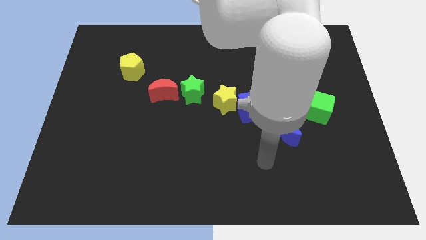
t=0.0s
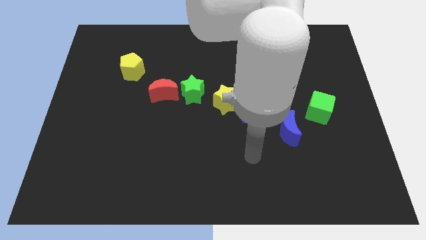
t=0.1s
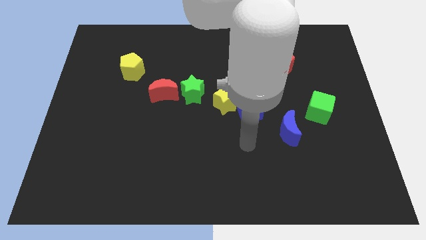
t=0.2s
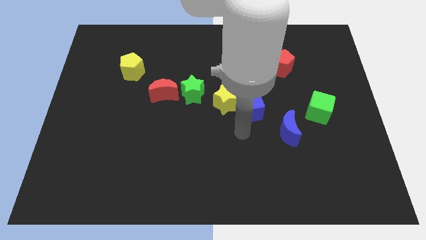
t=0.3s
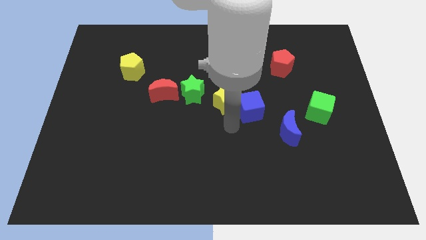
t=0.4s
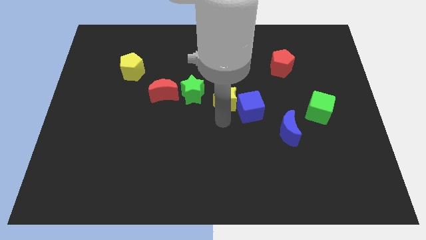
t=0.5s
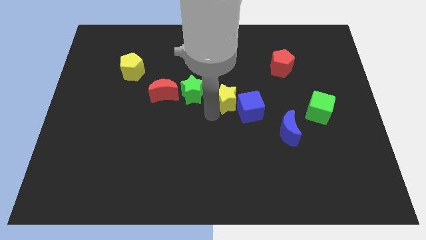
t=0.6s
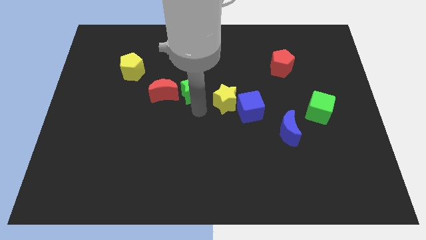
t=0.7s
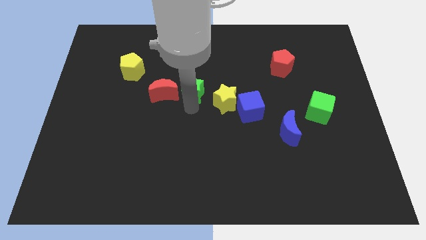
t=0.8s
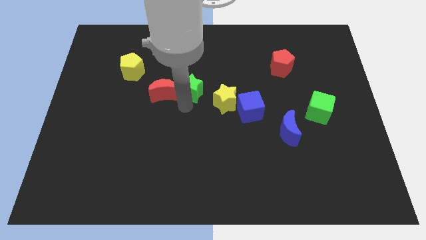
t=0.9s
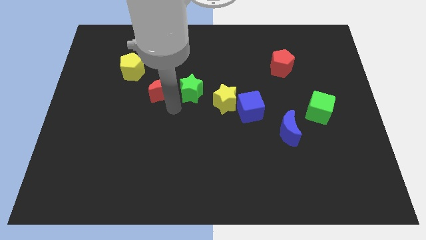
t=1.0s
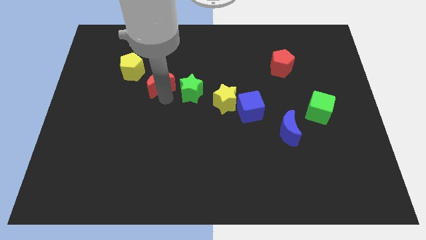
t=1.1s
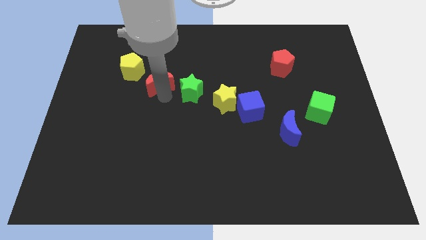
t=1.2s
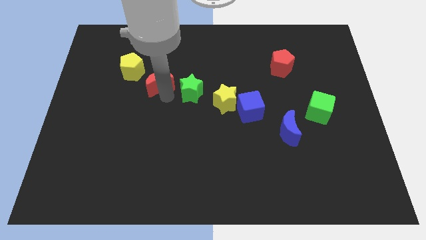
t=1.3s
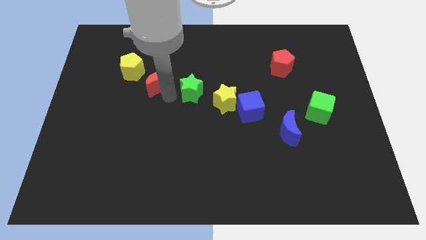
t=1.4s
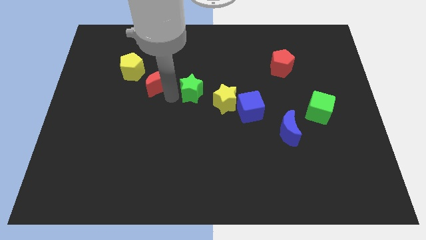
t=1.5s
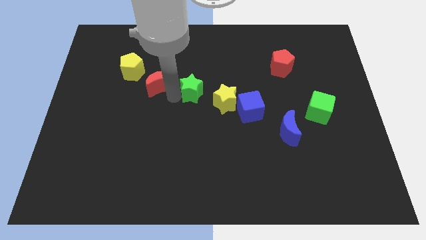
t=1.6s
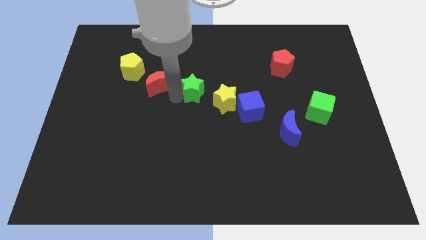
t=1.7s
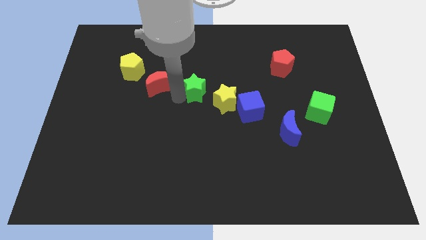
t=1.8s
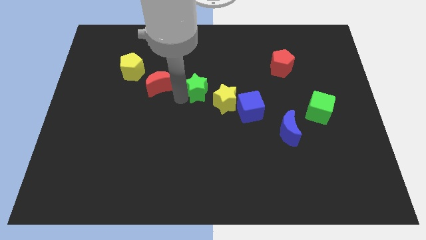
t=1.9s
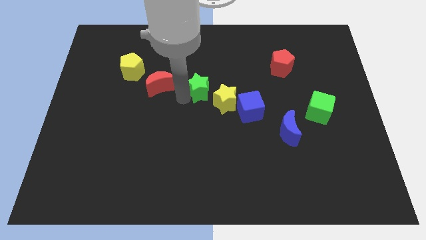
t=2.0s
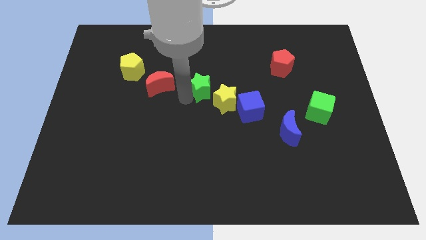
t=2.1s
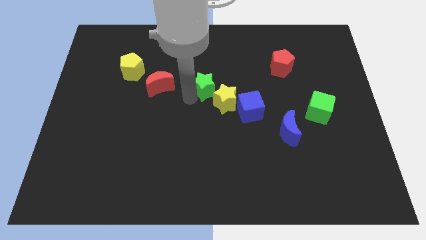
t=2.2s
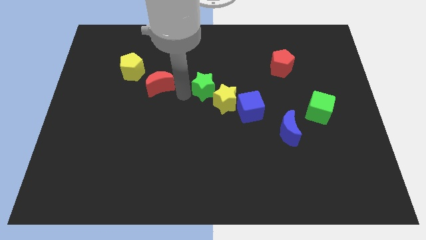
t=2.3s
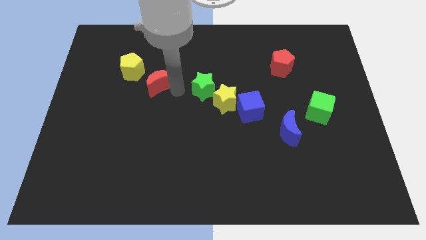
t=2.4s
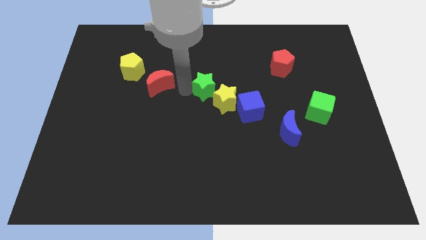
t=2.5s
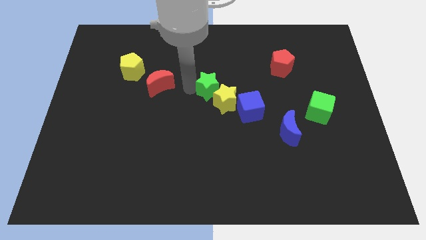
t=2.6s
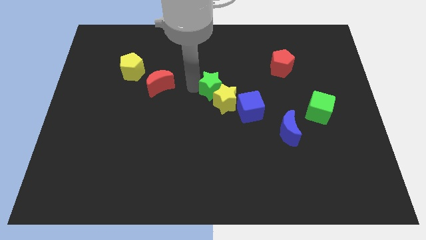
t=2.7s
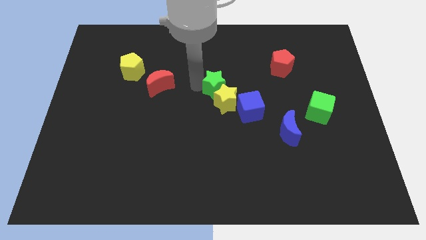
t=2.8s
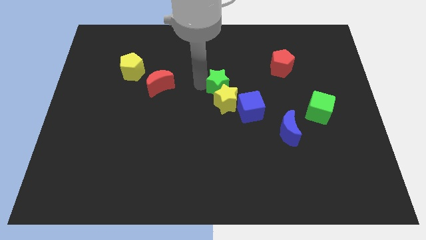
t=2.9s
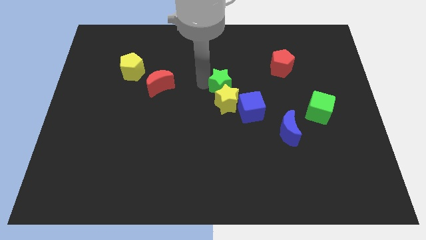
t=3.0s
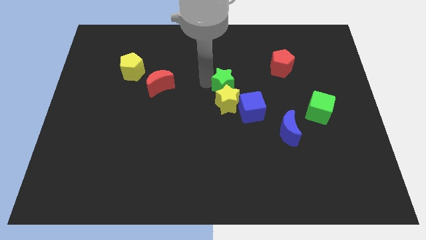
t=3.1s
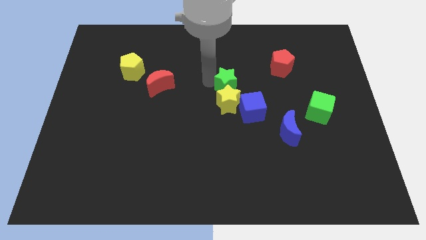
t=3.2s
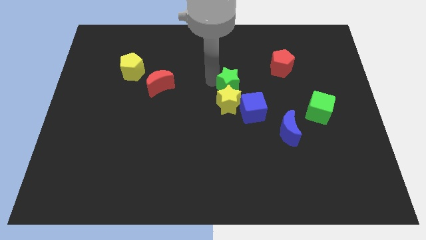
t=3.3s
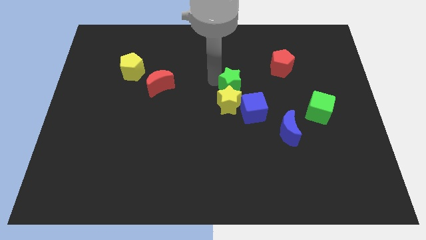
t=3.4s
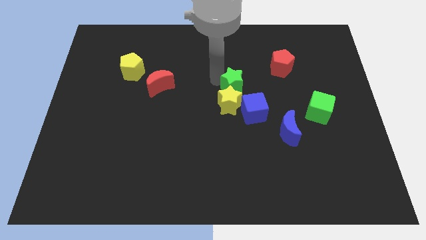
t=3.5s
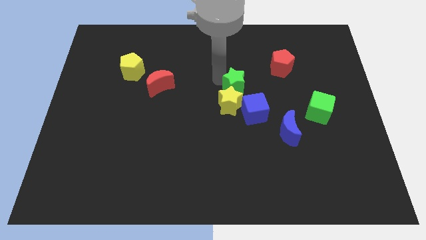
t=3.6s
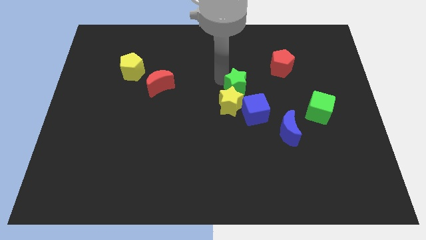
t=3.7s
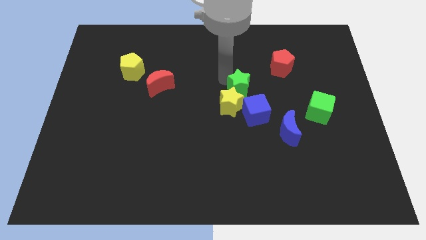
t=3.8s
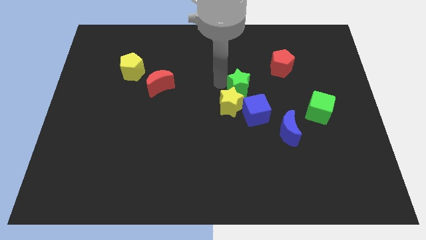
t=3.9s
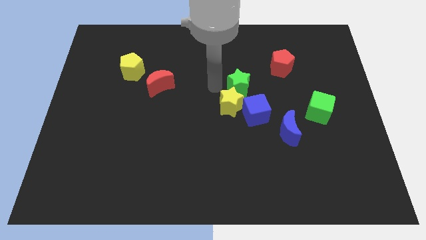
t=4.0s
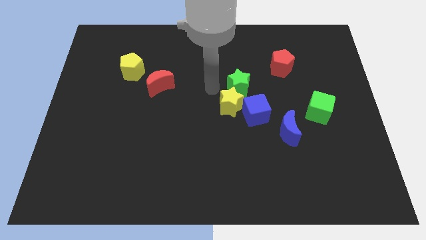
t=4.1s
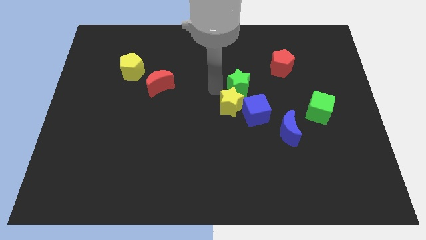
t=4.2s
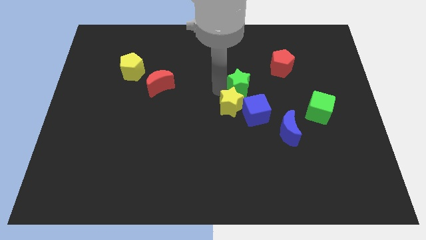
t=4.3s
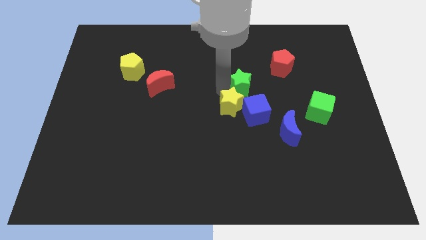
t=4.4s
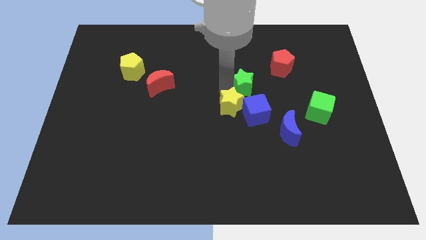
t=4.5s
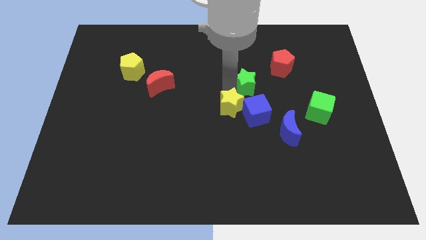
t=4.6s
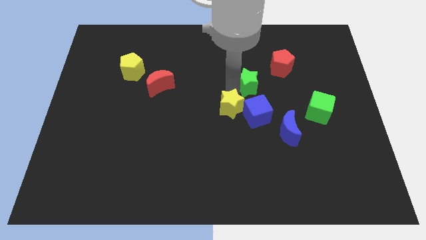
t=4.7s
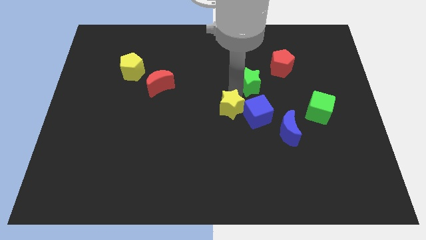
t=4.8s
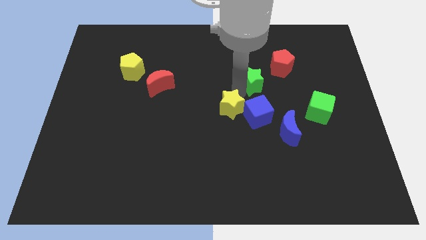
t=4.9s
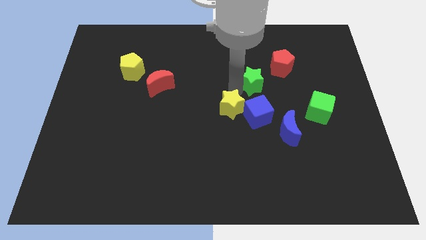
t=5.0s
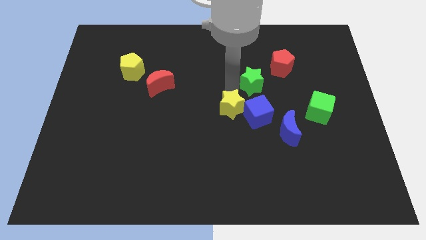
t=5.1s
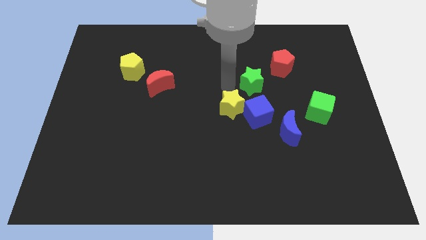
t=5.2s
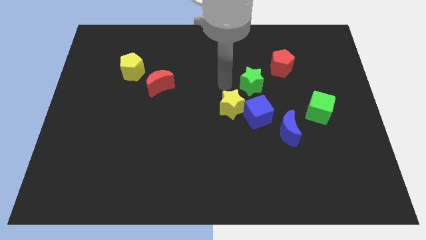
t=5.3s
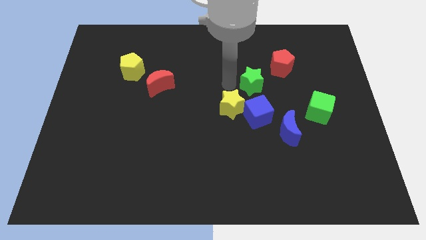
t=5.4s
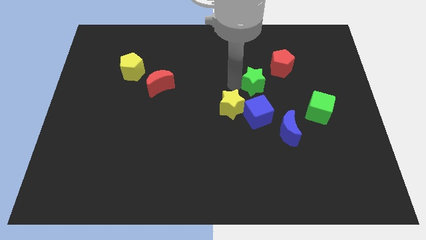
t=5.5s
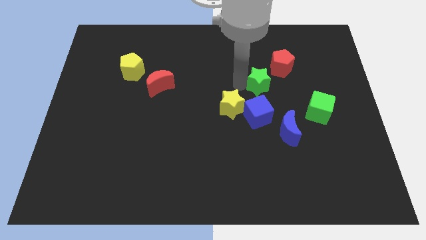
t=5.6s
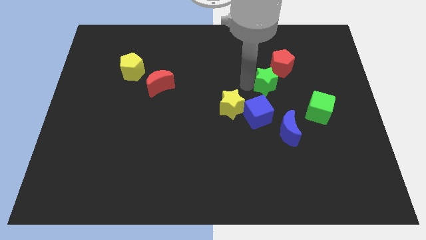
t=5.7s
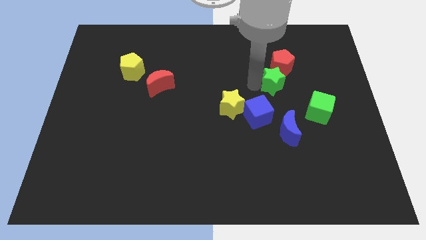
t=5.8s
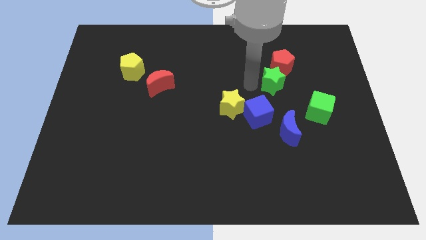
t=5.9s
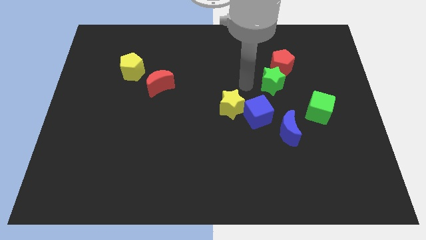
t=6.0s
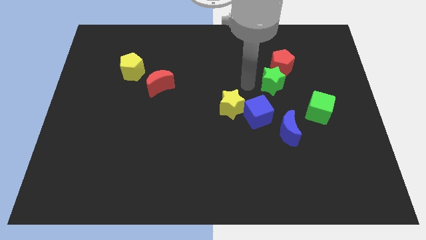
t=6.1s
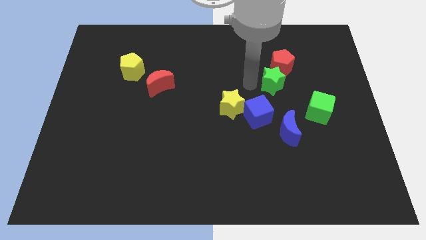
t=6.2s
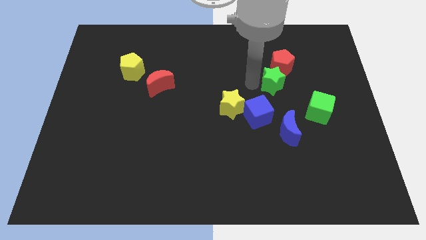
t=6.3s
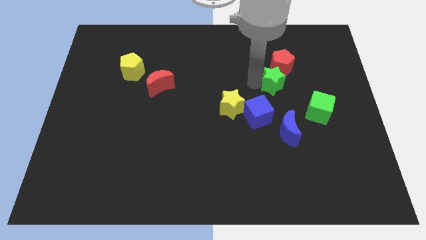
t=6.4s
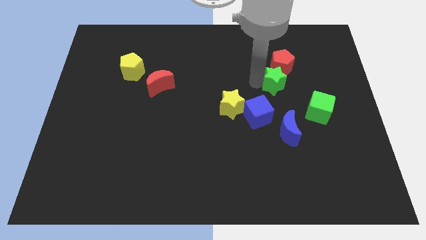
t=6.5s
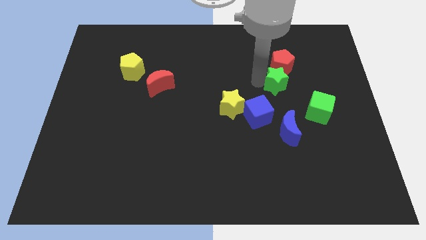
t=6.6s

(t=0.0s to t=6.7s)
move the green star to the right

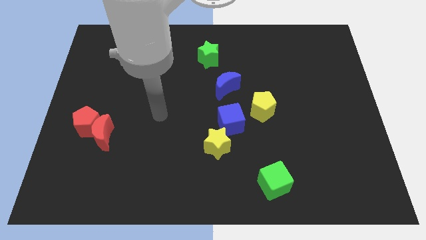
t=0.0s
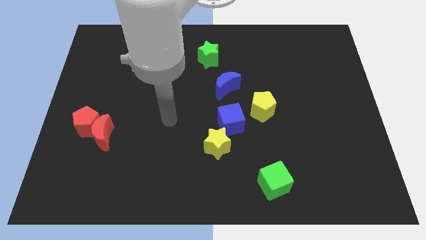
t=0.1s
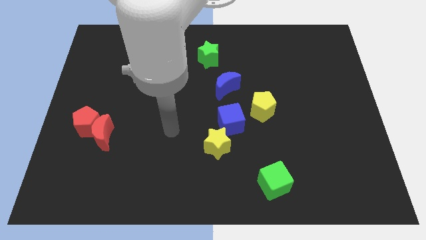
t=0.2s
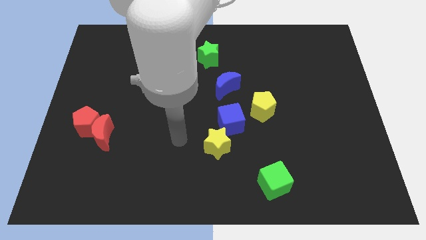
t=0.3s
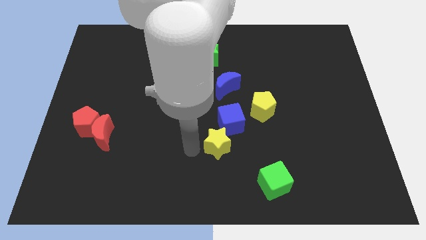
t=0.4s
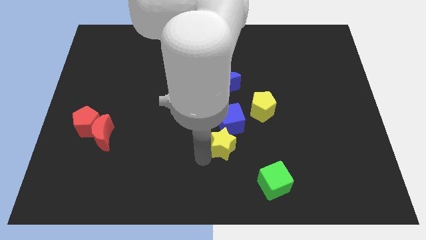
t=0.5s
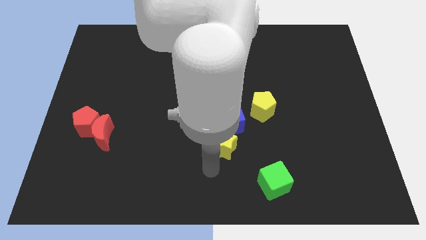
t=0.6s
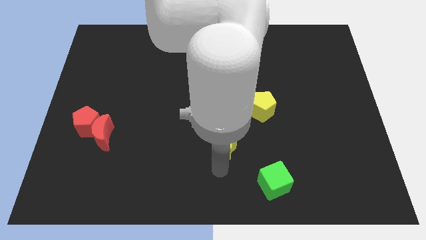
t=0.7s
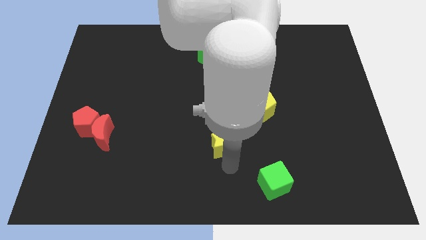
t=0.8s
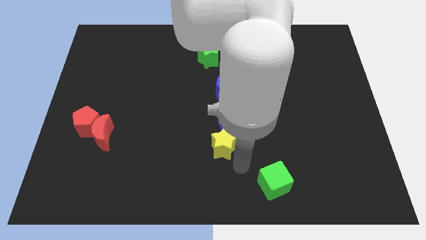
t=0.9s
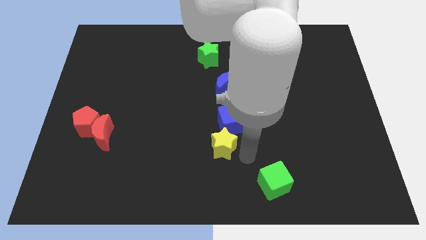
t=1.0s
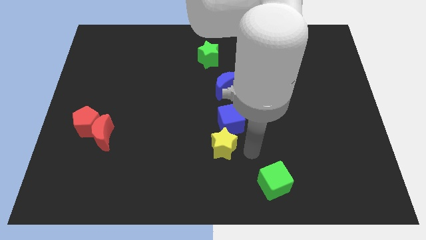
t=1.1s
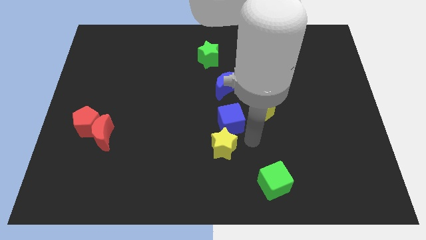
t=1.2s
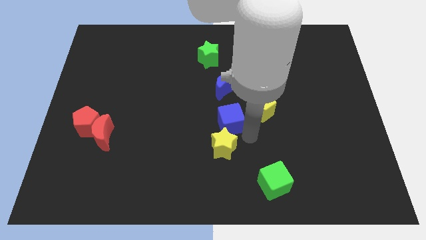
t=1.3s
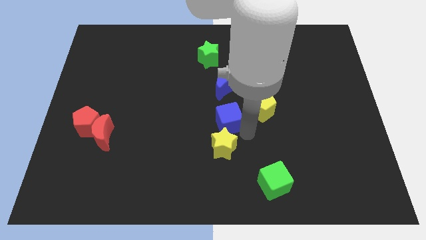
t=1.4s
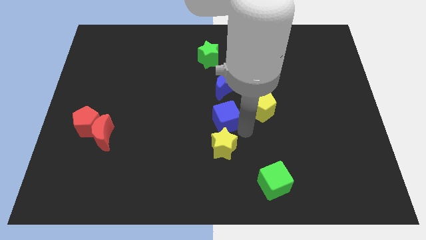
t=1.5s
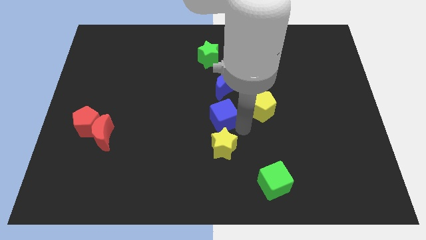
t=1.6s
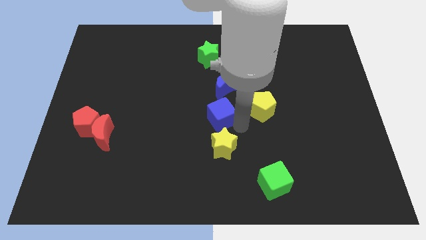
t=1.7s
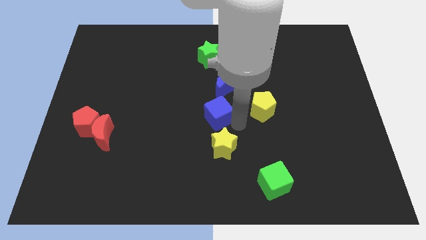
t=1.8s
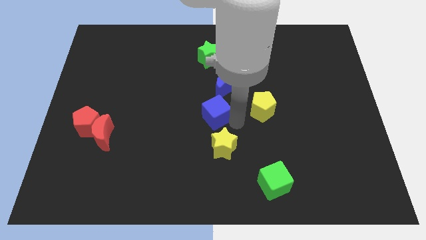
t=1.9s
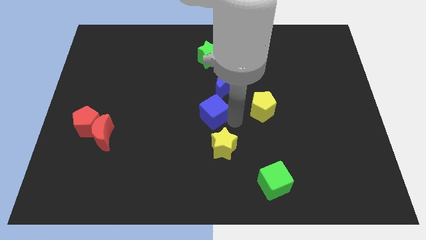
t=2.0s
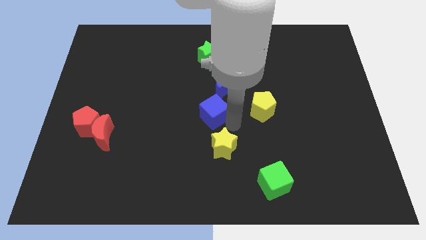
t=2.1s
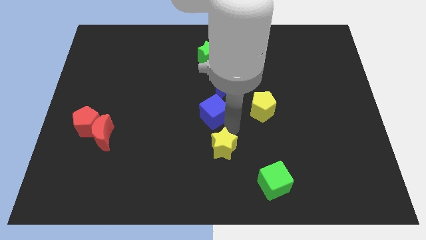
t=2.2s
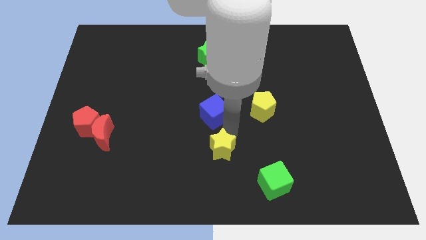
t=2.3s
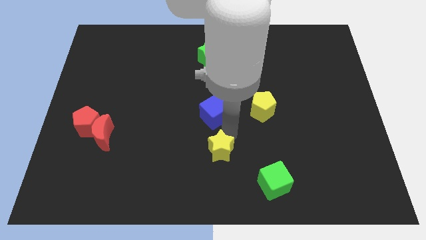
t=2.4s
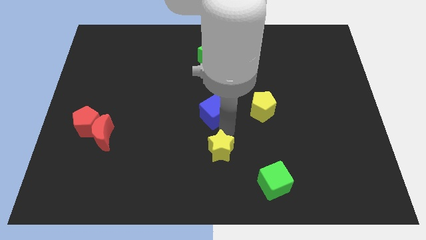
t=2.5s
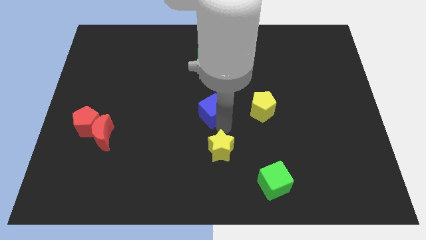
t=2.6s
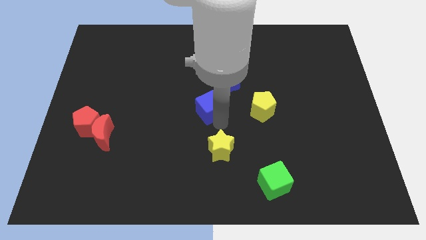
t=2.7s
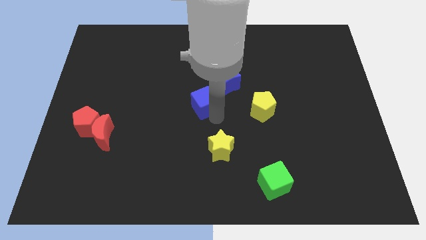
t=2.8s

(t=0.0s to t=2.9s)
push the blue cube slightly upwards and then left
